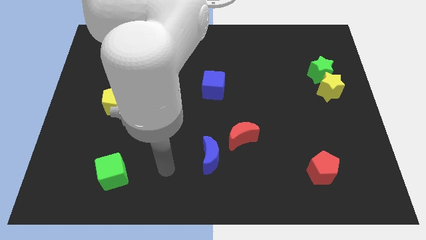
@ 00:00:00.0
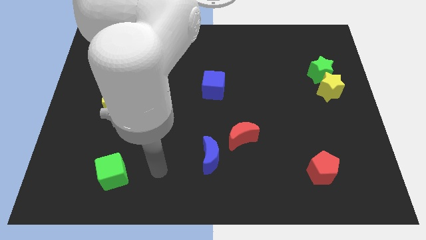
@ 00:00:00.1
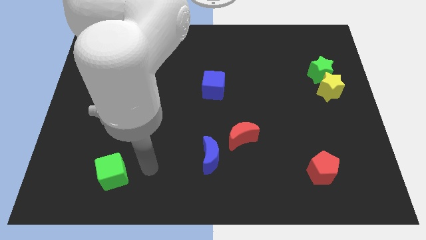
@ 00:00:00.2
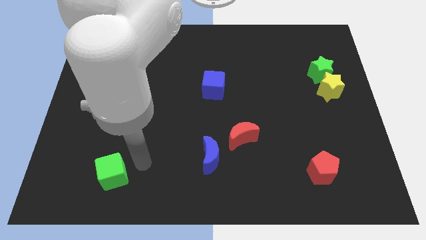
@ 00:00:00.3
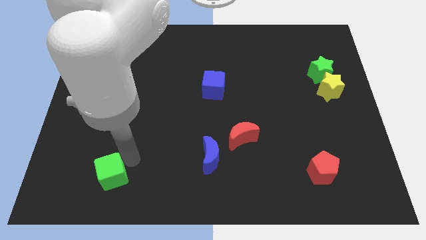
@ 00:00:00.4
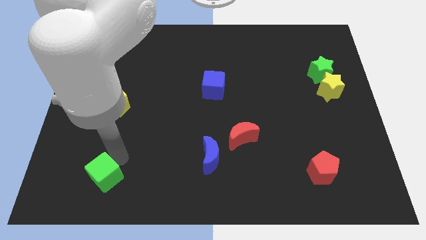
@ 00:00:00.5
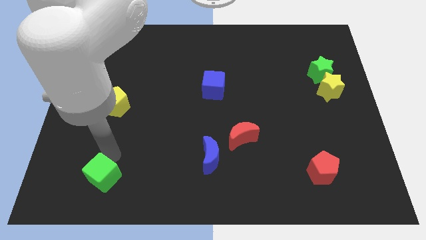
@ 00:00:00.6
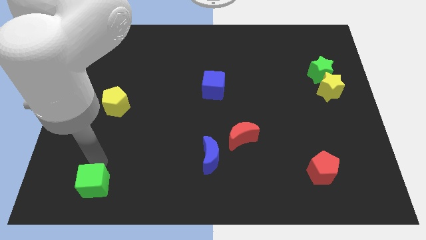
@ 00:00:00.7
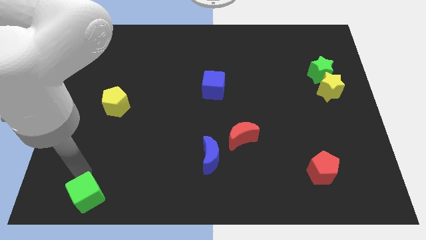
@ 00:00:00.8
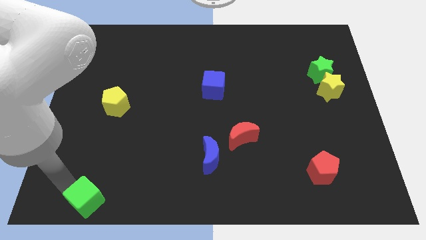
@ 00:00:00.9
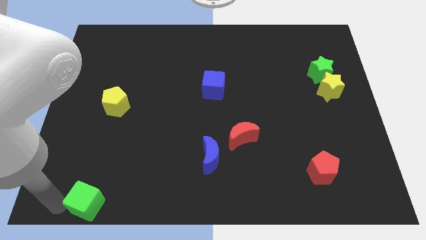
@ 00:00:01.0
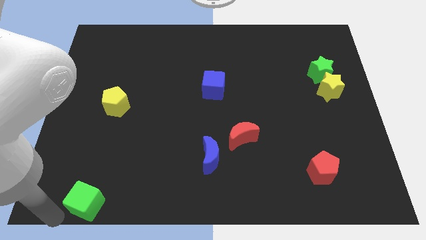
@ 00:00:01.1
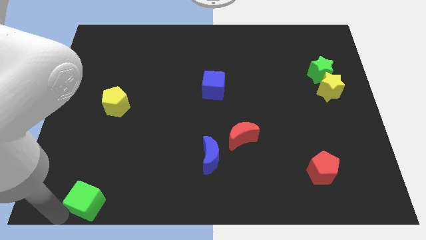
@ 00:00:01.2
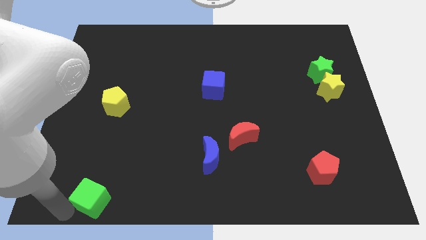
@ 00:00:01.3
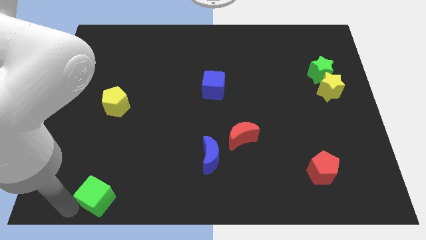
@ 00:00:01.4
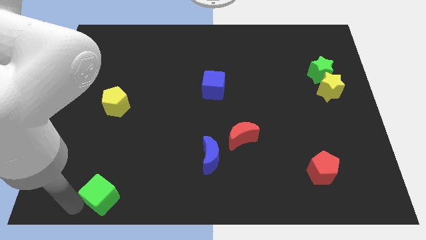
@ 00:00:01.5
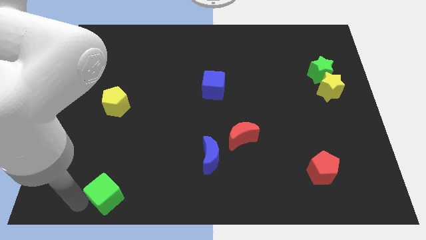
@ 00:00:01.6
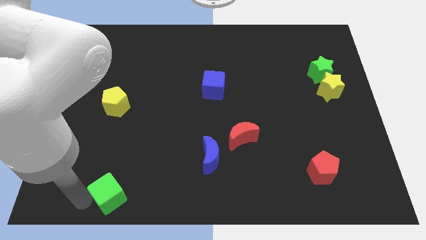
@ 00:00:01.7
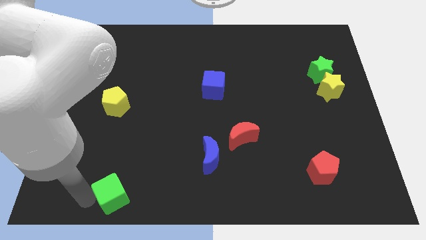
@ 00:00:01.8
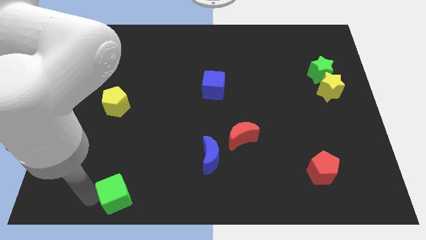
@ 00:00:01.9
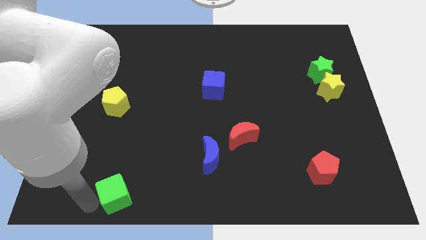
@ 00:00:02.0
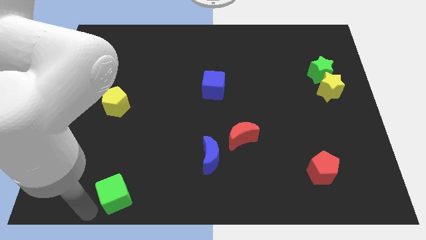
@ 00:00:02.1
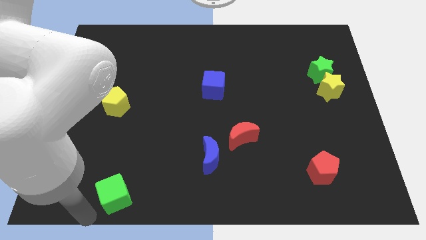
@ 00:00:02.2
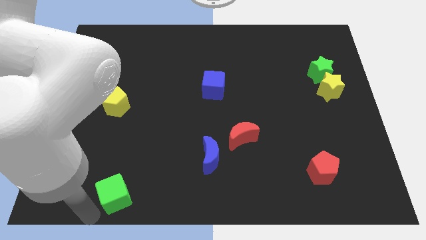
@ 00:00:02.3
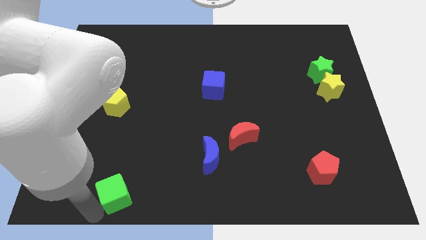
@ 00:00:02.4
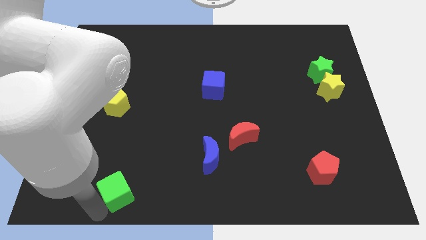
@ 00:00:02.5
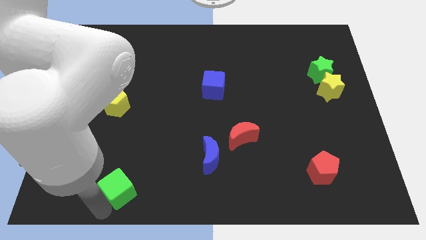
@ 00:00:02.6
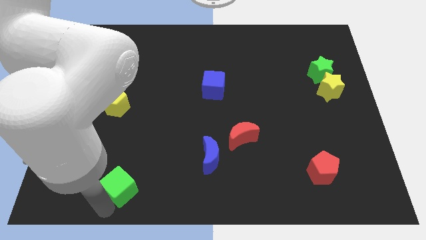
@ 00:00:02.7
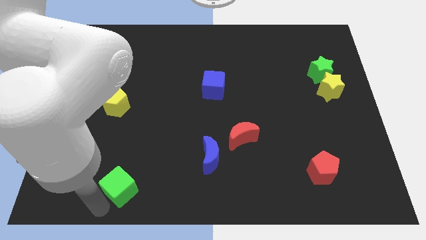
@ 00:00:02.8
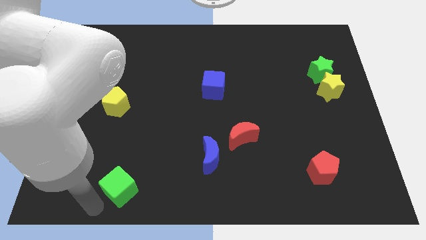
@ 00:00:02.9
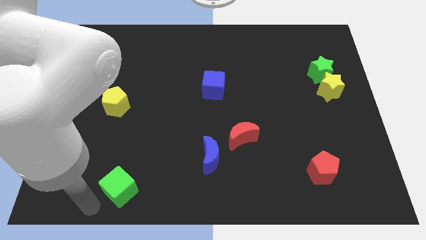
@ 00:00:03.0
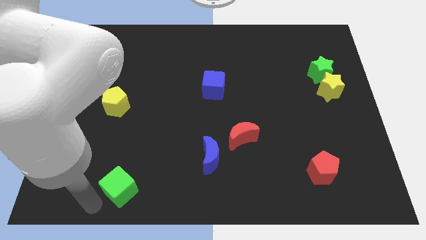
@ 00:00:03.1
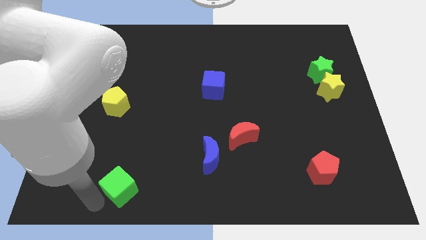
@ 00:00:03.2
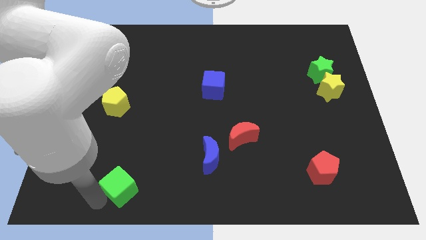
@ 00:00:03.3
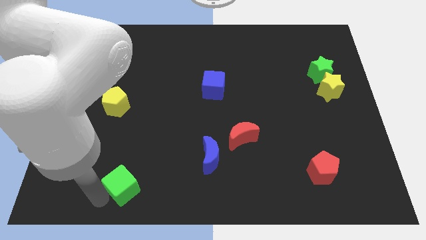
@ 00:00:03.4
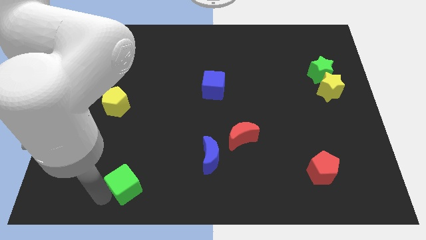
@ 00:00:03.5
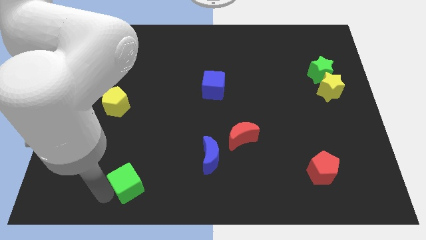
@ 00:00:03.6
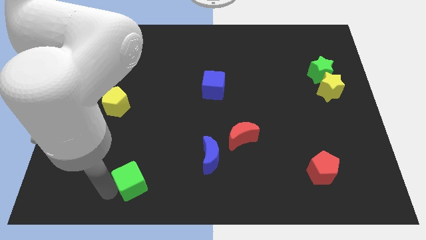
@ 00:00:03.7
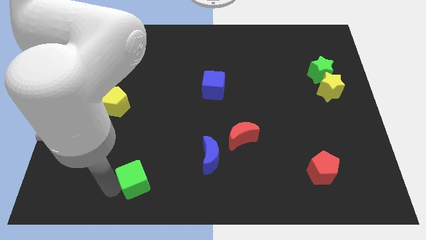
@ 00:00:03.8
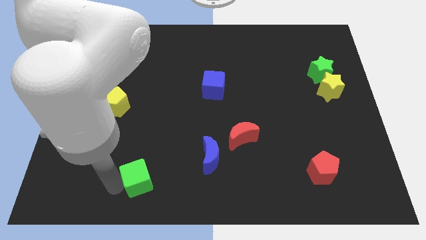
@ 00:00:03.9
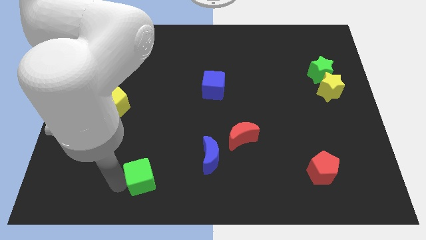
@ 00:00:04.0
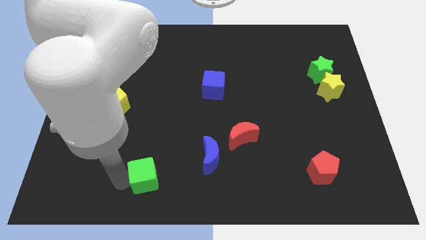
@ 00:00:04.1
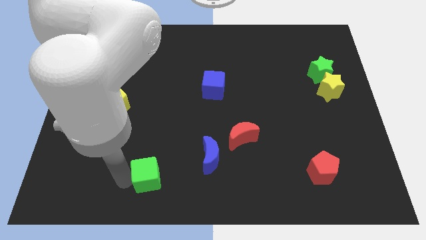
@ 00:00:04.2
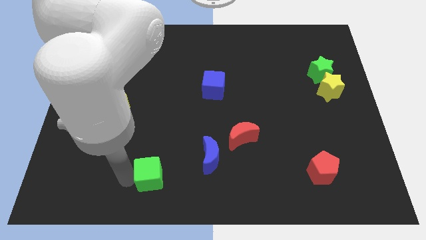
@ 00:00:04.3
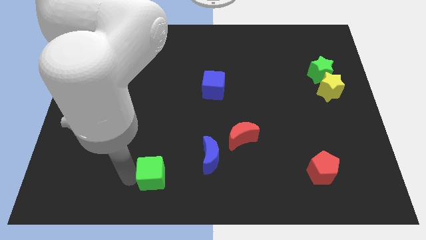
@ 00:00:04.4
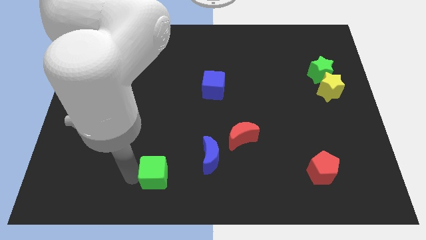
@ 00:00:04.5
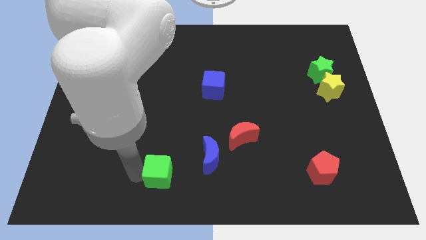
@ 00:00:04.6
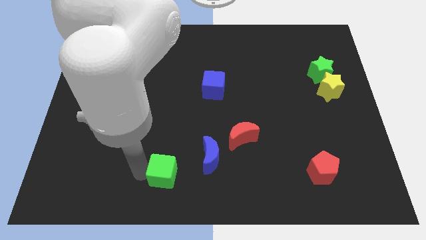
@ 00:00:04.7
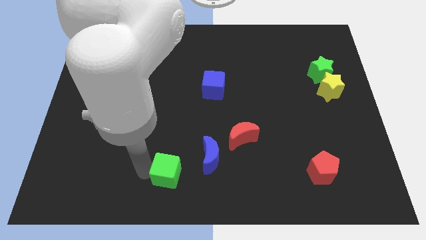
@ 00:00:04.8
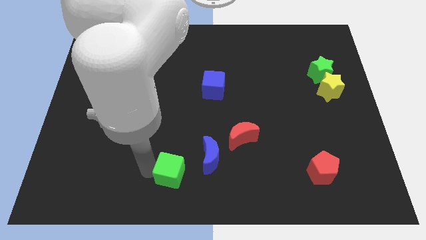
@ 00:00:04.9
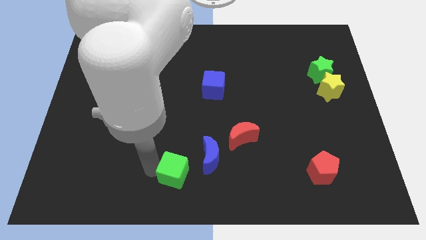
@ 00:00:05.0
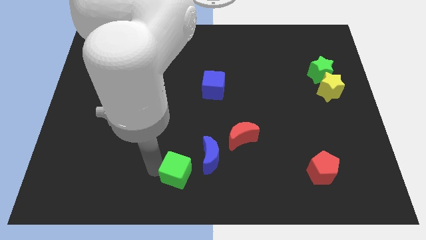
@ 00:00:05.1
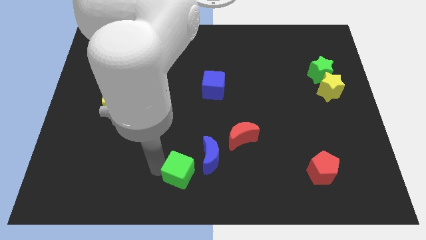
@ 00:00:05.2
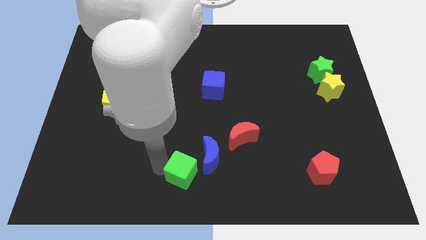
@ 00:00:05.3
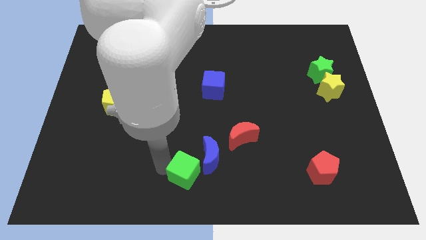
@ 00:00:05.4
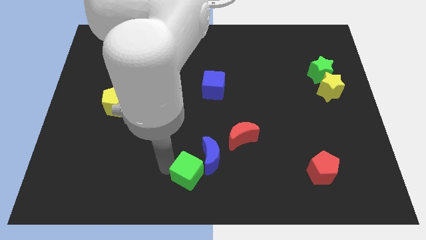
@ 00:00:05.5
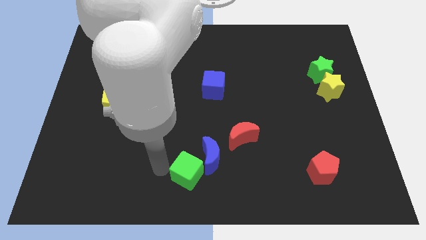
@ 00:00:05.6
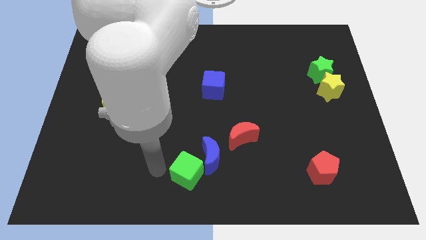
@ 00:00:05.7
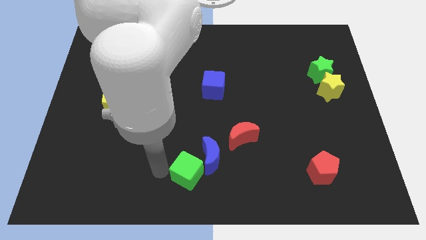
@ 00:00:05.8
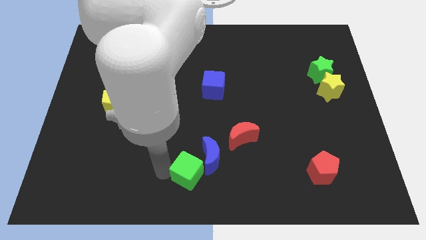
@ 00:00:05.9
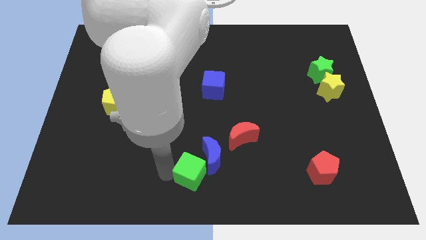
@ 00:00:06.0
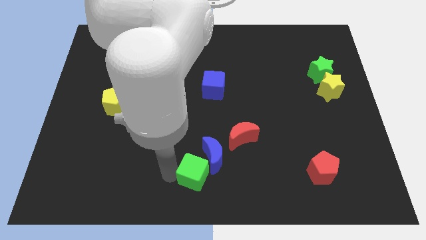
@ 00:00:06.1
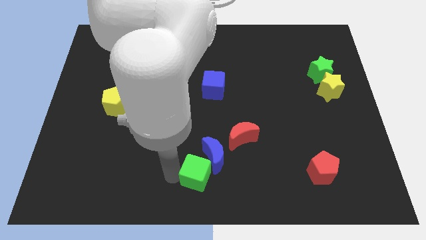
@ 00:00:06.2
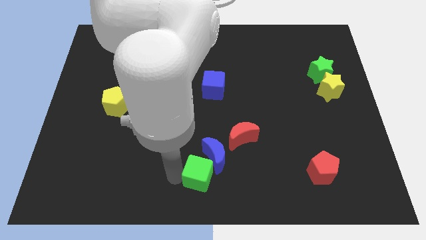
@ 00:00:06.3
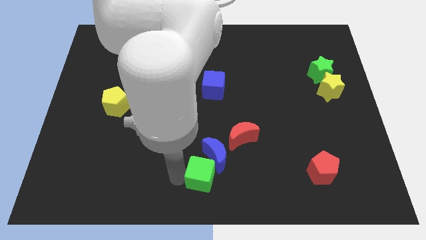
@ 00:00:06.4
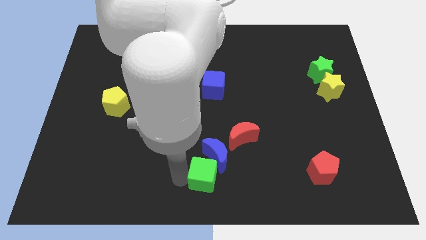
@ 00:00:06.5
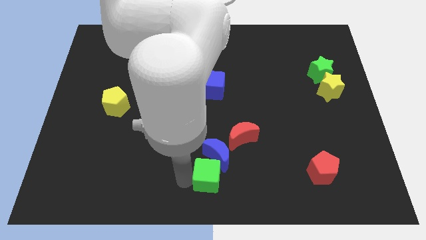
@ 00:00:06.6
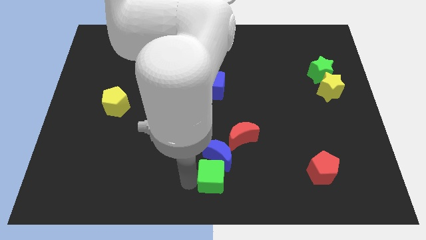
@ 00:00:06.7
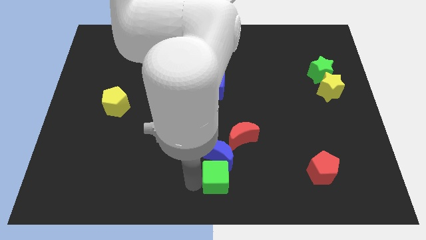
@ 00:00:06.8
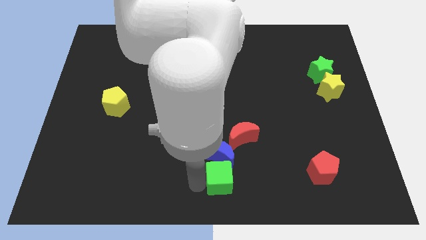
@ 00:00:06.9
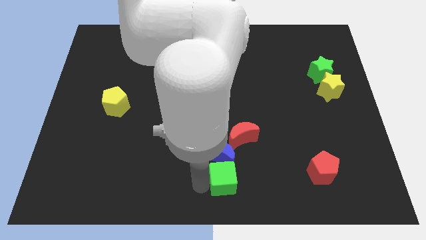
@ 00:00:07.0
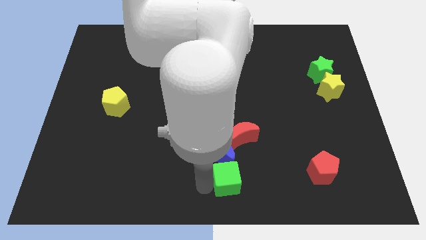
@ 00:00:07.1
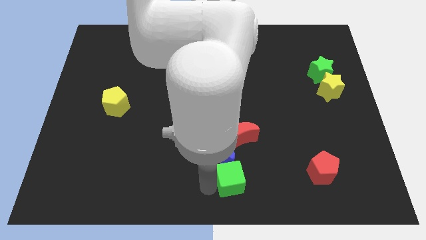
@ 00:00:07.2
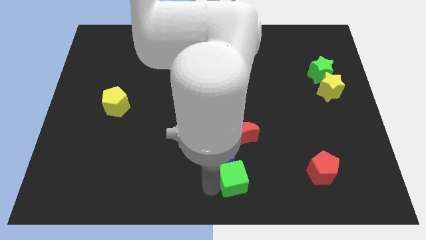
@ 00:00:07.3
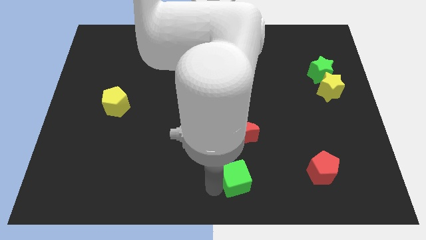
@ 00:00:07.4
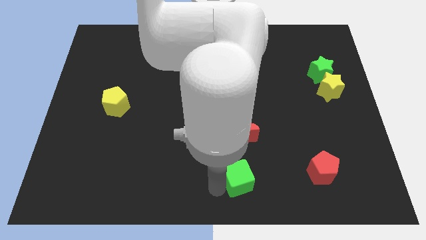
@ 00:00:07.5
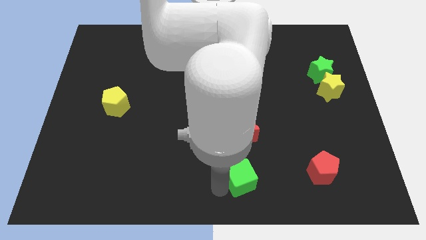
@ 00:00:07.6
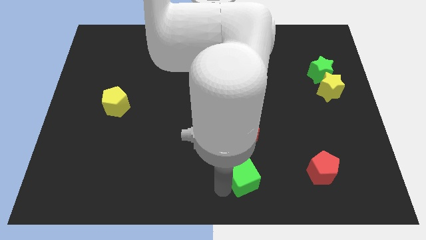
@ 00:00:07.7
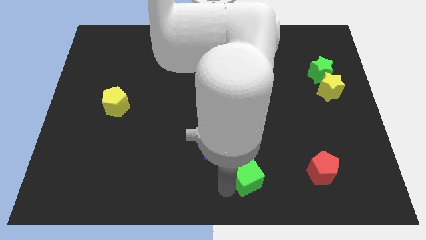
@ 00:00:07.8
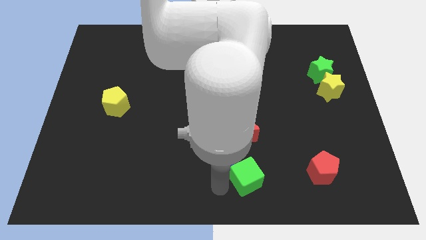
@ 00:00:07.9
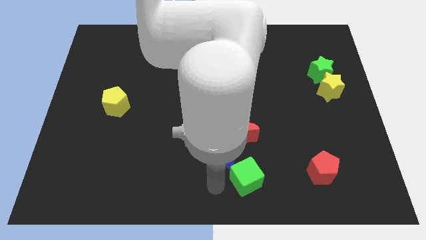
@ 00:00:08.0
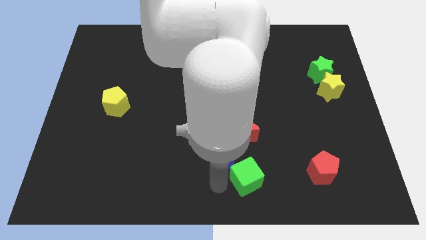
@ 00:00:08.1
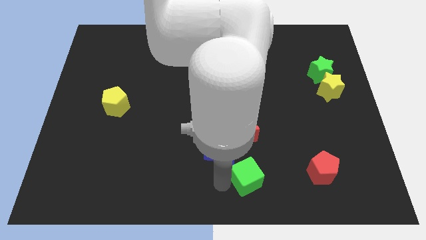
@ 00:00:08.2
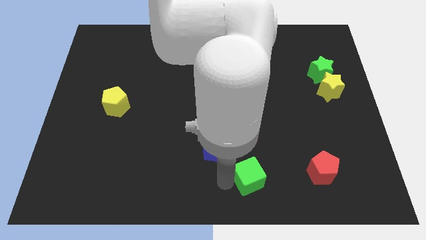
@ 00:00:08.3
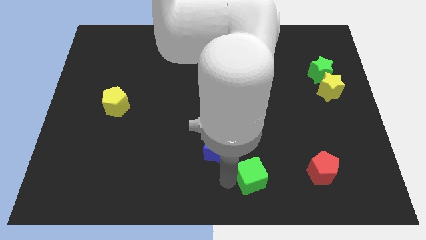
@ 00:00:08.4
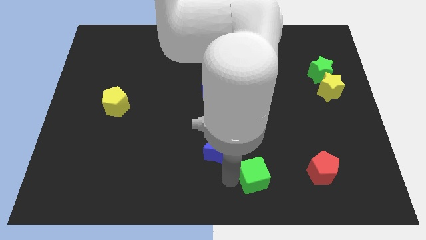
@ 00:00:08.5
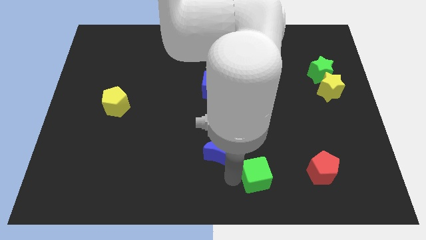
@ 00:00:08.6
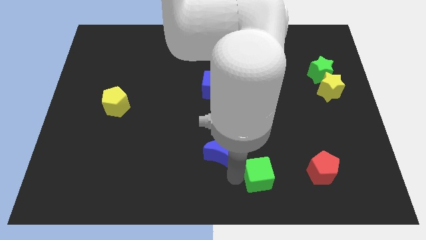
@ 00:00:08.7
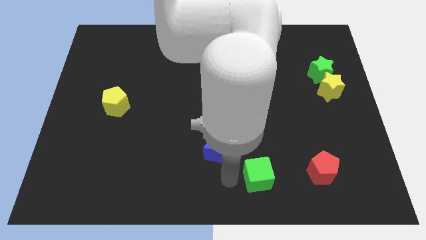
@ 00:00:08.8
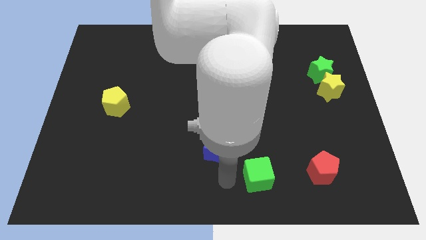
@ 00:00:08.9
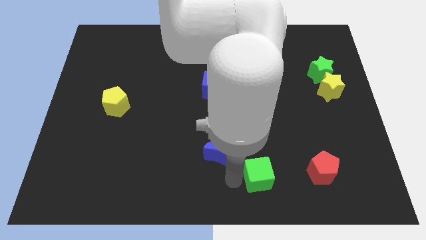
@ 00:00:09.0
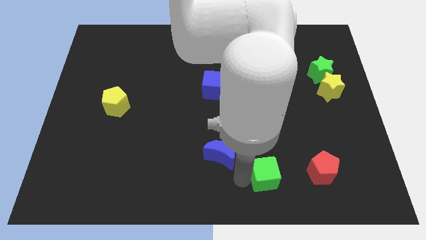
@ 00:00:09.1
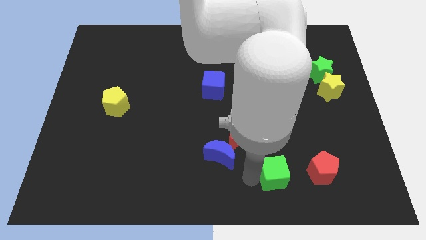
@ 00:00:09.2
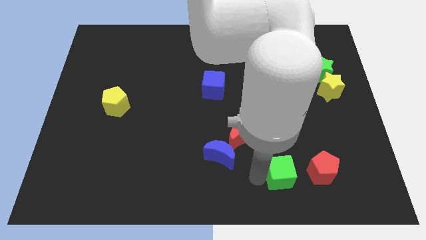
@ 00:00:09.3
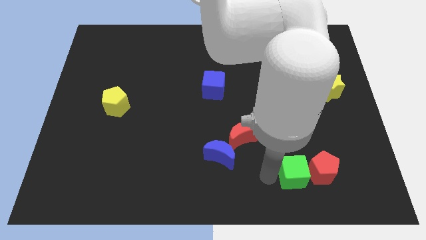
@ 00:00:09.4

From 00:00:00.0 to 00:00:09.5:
push the green cube close to the red pentagon
